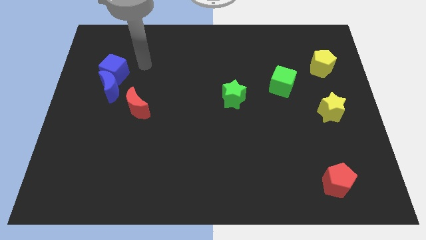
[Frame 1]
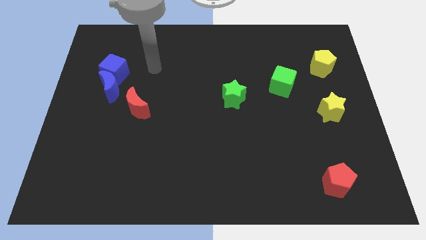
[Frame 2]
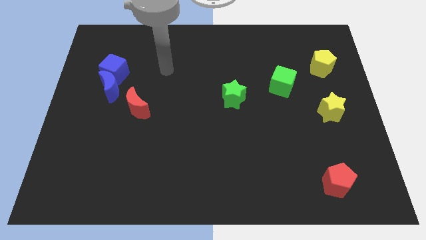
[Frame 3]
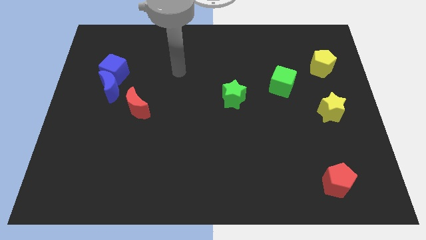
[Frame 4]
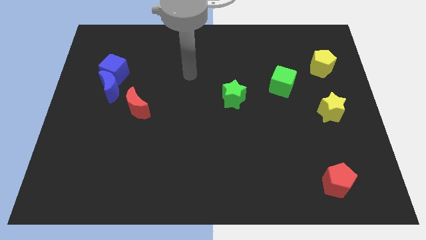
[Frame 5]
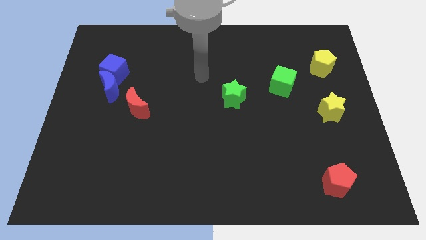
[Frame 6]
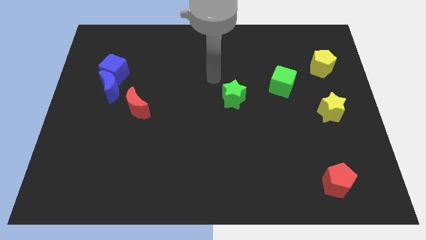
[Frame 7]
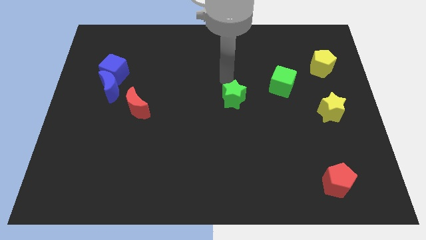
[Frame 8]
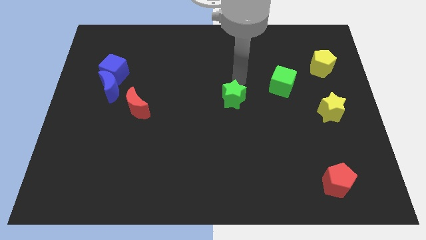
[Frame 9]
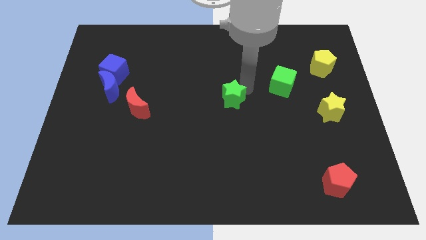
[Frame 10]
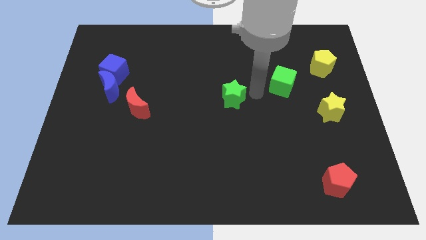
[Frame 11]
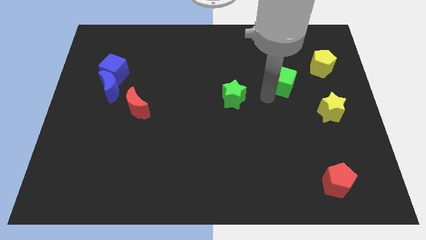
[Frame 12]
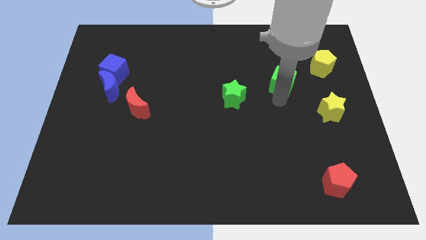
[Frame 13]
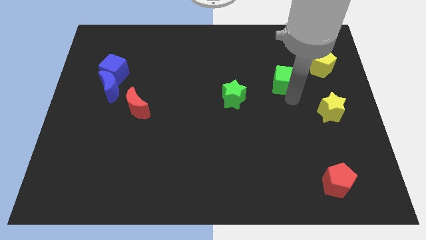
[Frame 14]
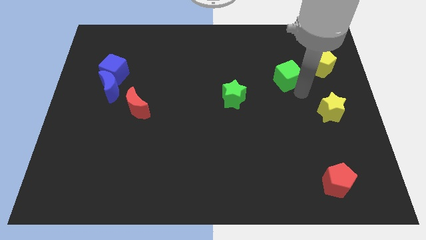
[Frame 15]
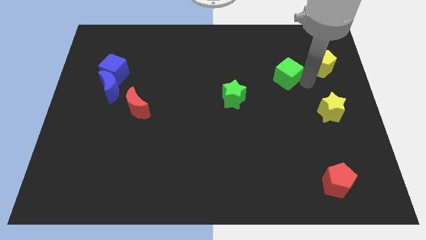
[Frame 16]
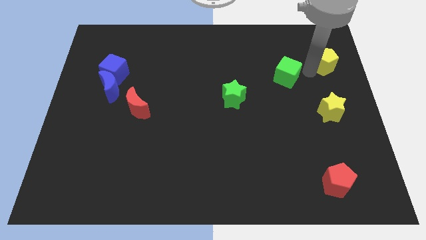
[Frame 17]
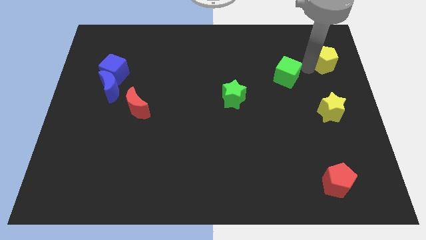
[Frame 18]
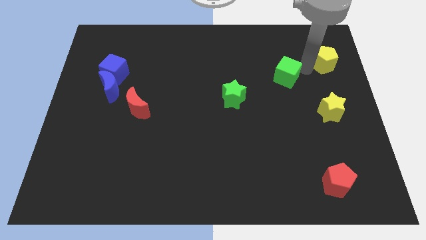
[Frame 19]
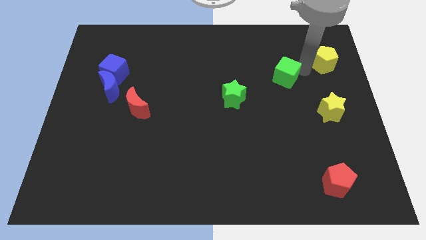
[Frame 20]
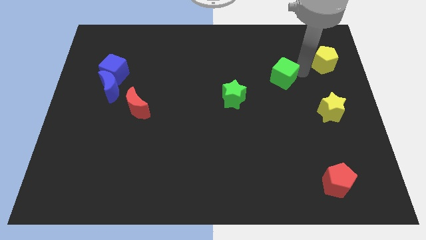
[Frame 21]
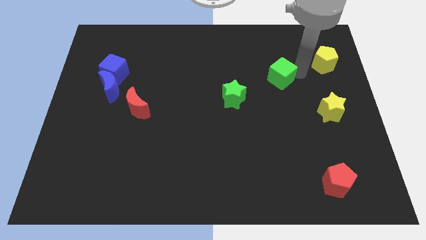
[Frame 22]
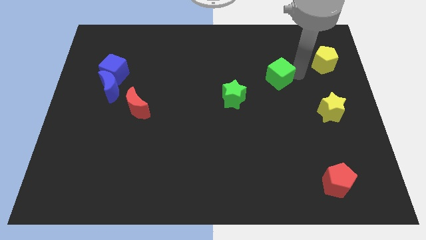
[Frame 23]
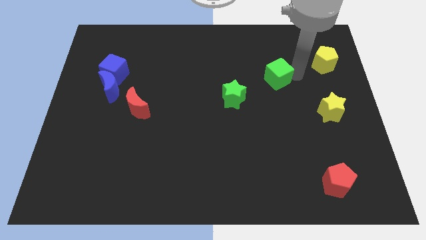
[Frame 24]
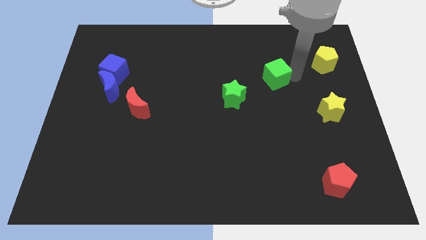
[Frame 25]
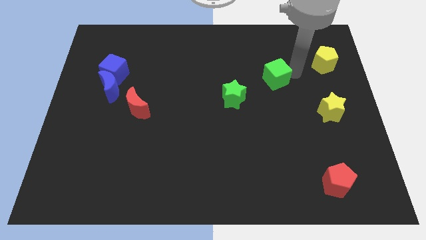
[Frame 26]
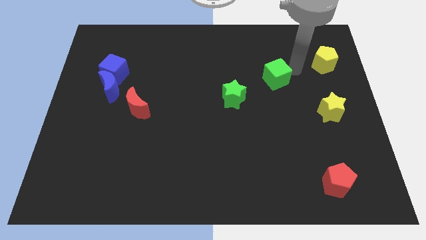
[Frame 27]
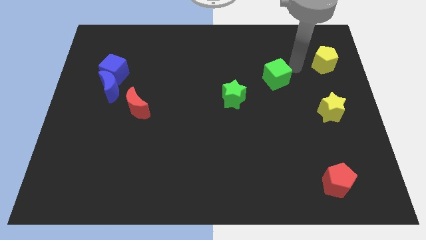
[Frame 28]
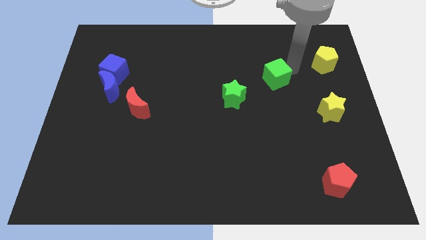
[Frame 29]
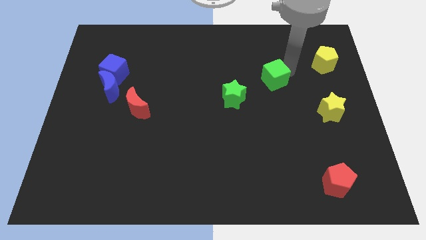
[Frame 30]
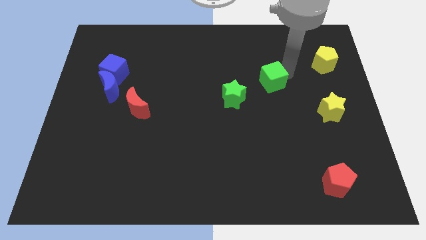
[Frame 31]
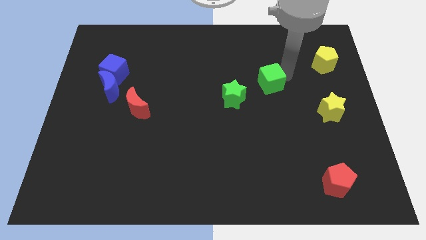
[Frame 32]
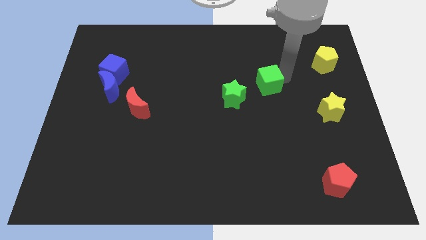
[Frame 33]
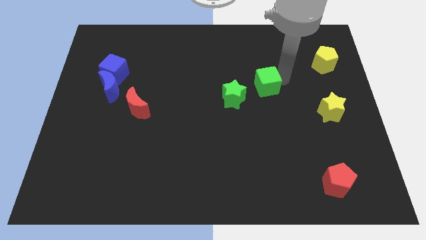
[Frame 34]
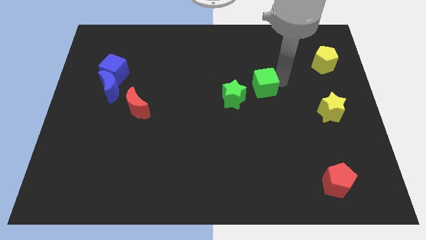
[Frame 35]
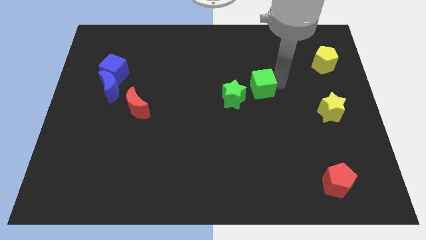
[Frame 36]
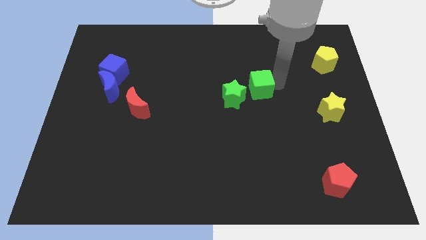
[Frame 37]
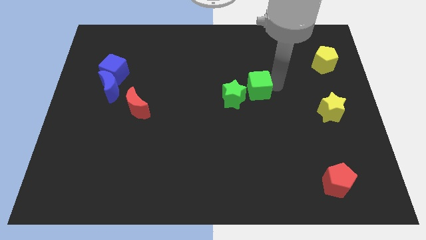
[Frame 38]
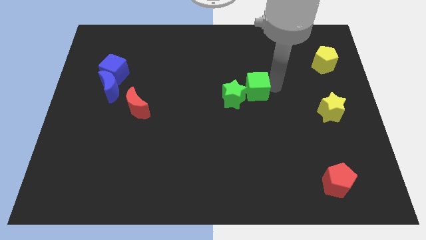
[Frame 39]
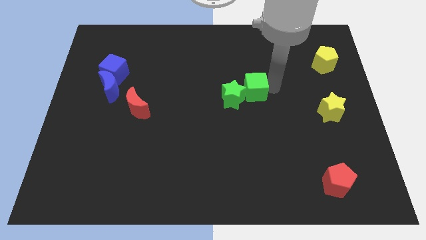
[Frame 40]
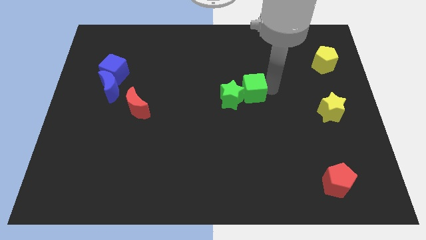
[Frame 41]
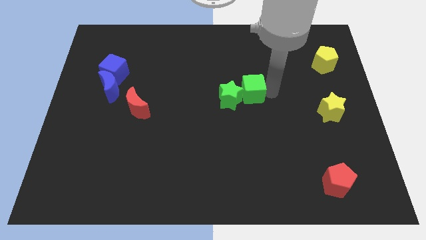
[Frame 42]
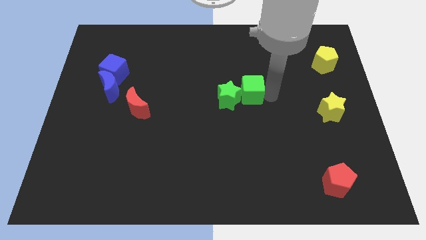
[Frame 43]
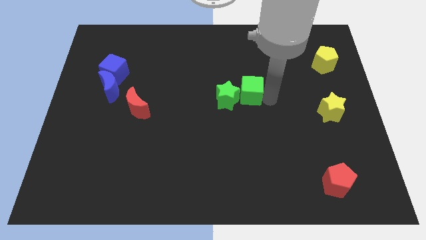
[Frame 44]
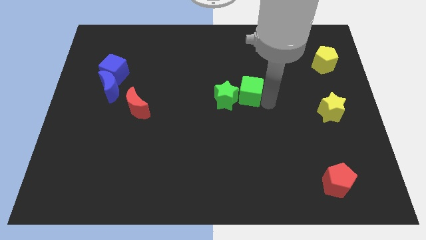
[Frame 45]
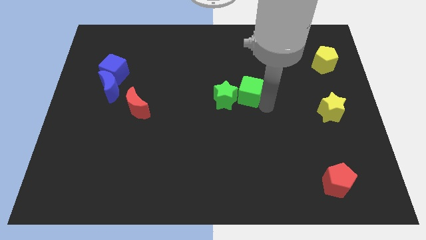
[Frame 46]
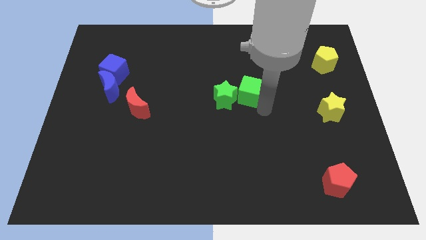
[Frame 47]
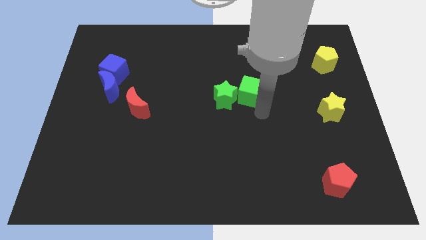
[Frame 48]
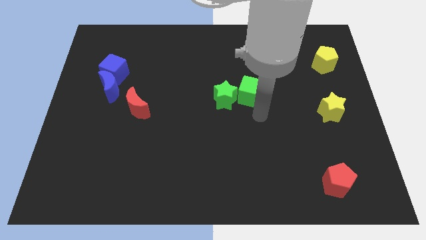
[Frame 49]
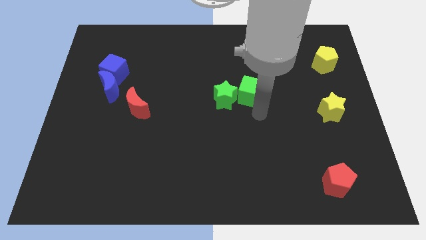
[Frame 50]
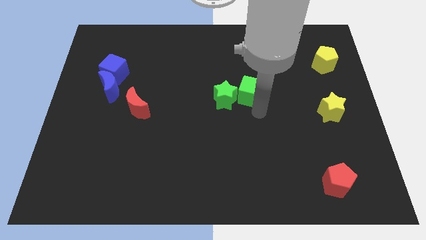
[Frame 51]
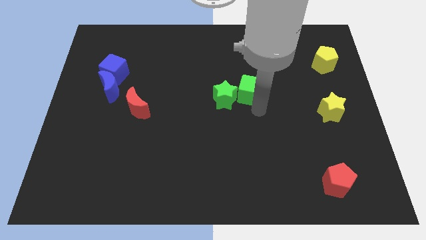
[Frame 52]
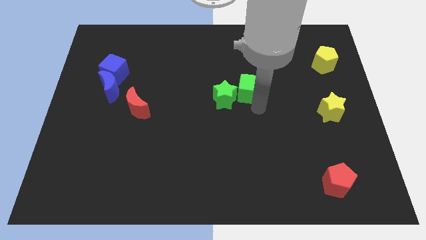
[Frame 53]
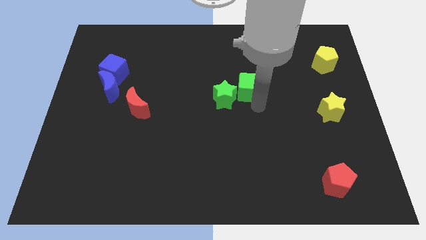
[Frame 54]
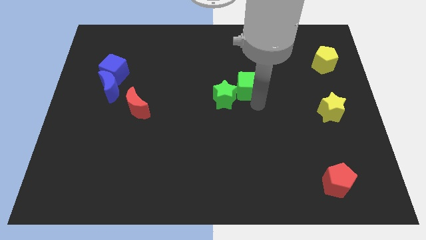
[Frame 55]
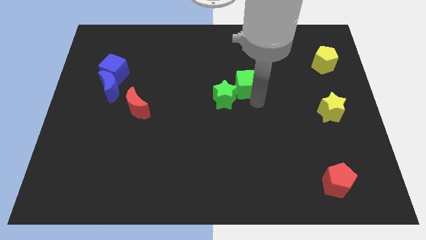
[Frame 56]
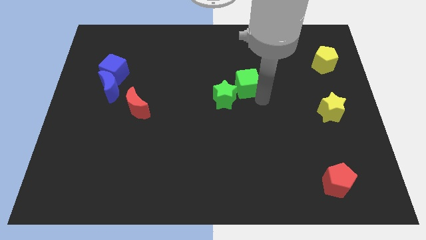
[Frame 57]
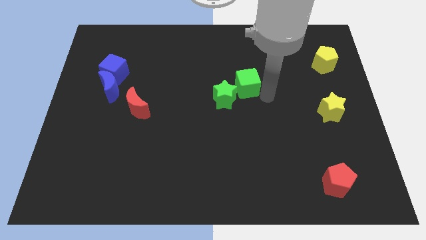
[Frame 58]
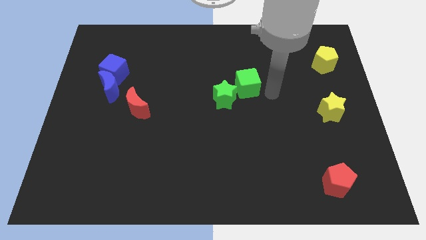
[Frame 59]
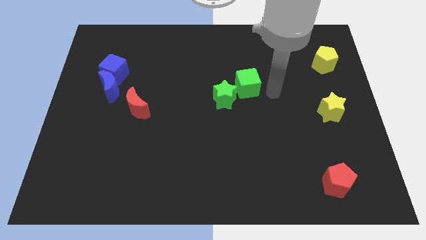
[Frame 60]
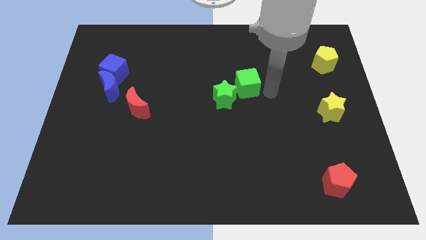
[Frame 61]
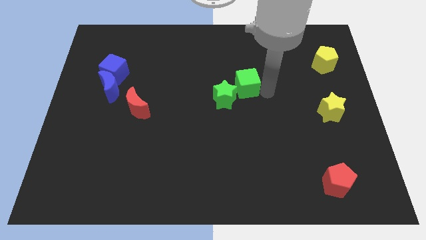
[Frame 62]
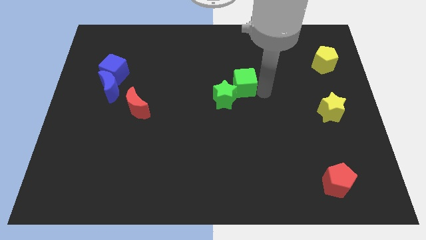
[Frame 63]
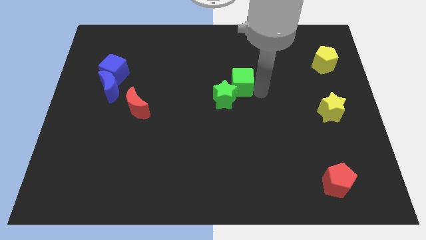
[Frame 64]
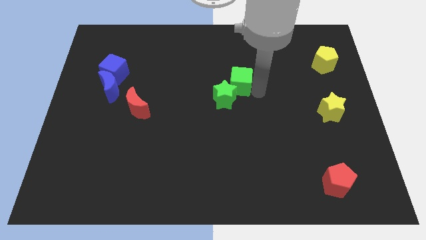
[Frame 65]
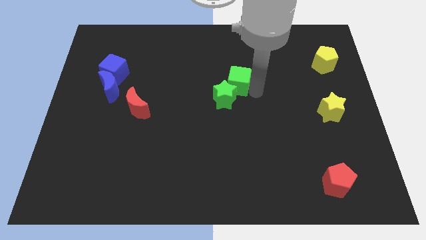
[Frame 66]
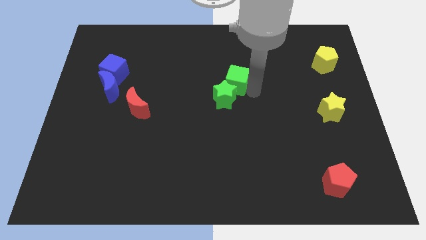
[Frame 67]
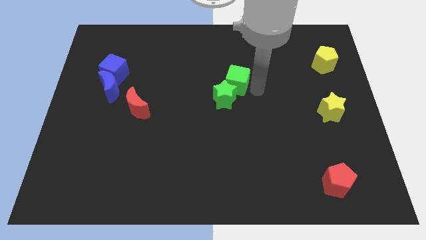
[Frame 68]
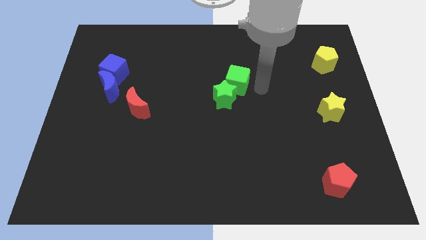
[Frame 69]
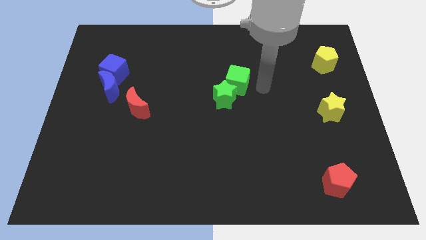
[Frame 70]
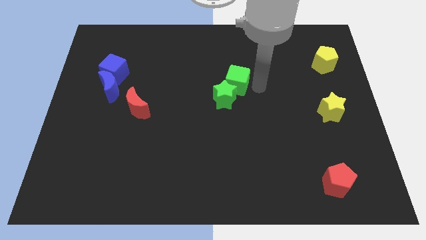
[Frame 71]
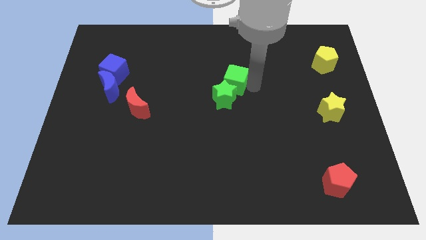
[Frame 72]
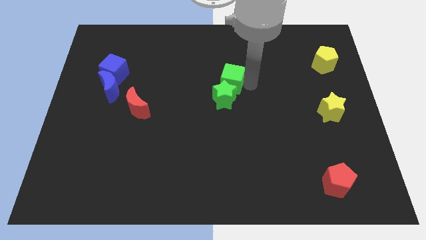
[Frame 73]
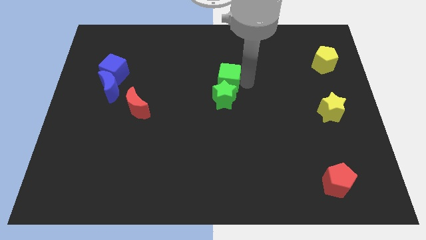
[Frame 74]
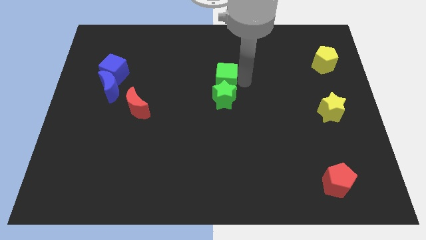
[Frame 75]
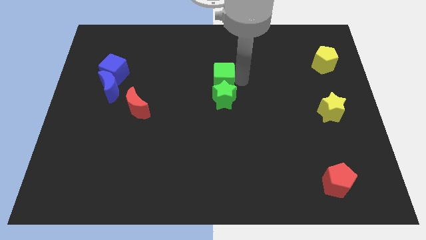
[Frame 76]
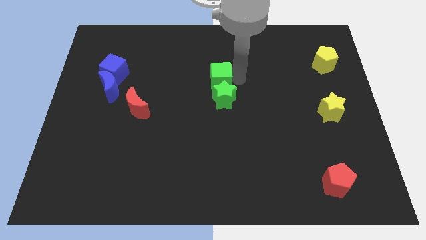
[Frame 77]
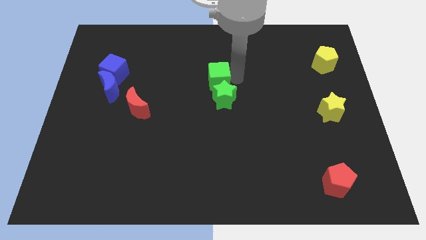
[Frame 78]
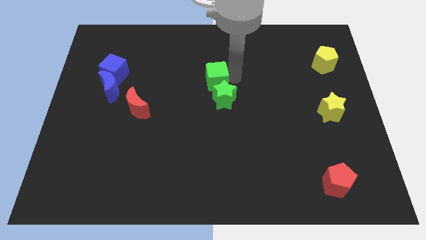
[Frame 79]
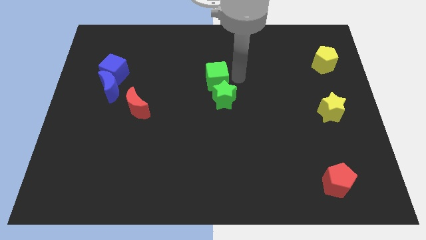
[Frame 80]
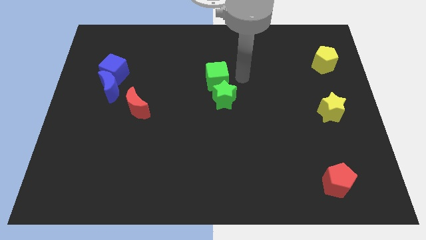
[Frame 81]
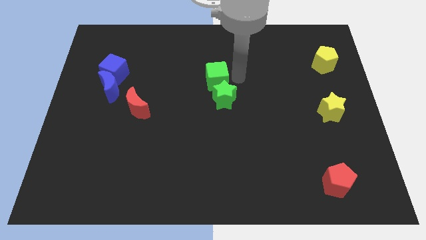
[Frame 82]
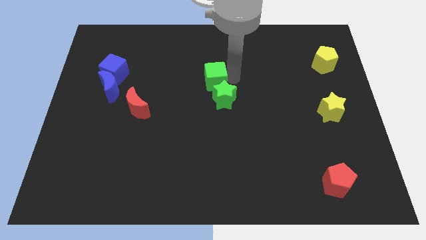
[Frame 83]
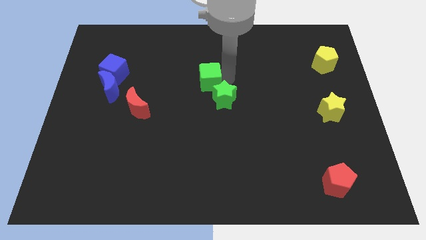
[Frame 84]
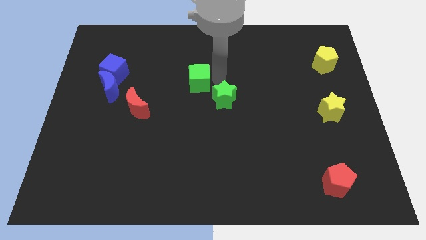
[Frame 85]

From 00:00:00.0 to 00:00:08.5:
slide the green cube left
